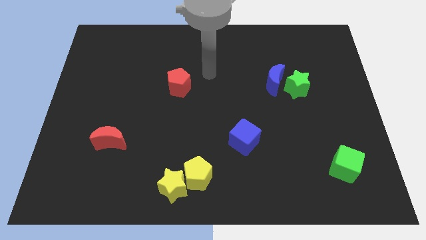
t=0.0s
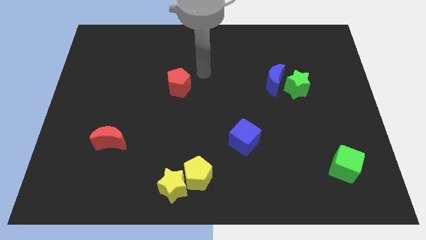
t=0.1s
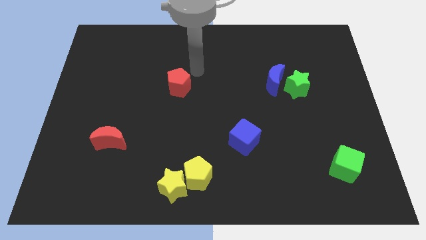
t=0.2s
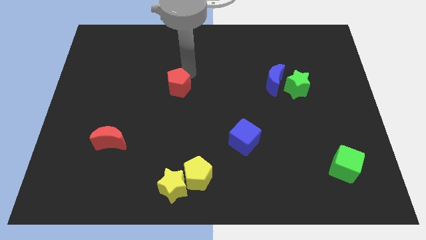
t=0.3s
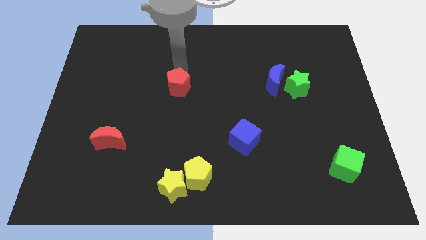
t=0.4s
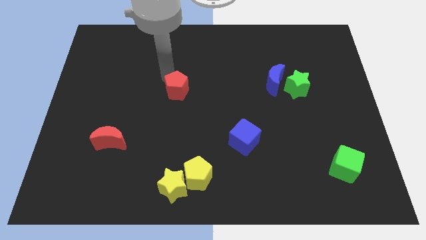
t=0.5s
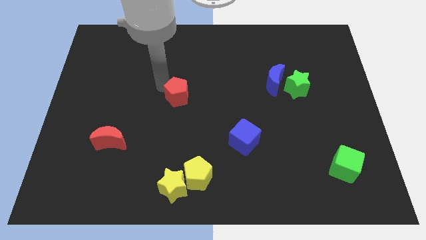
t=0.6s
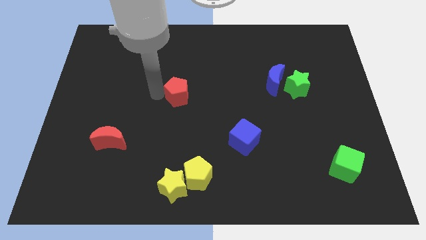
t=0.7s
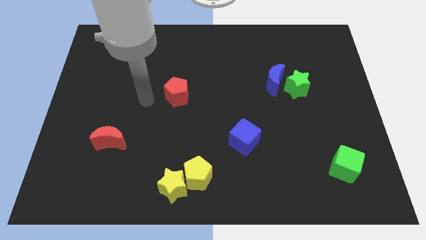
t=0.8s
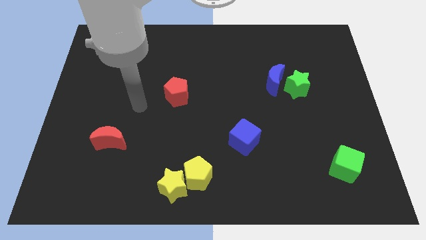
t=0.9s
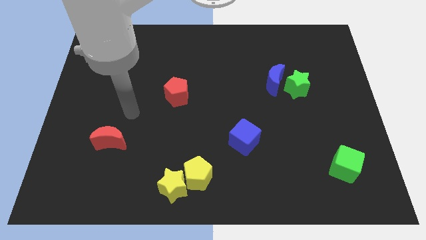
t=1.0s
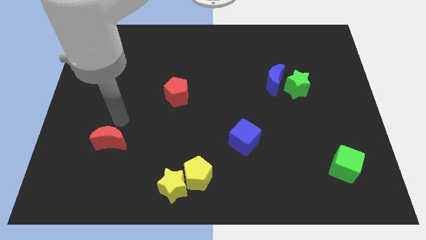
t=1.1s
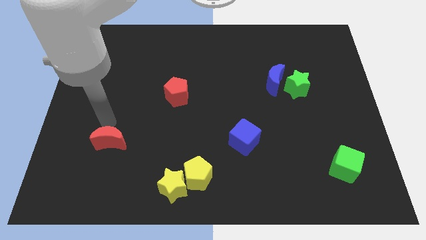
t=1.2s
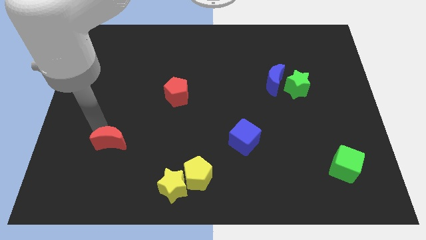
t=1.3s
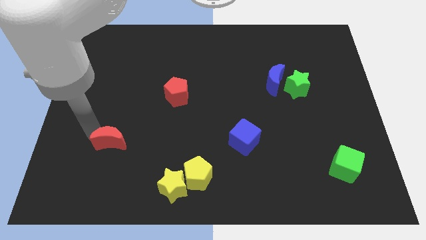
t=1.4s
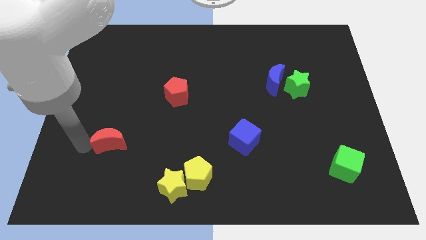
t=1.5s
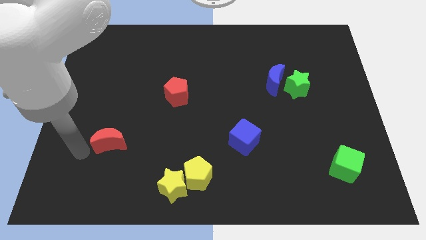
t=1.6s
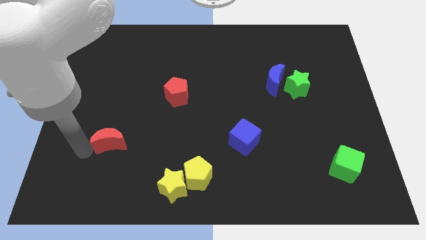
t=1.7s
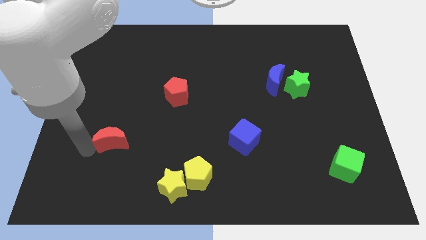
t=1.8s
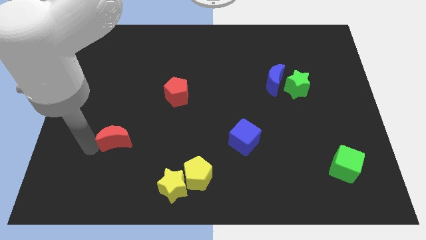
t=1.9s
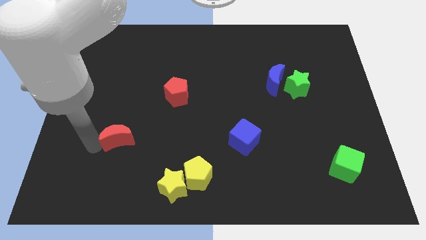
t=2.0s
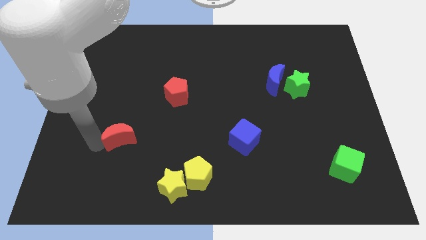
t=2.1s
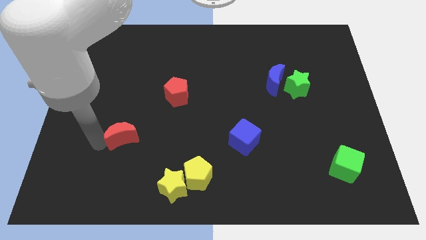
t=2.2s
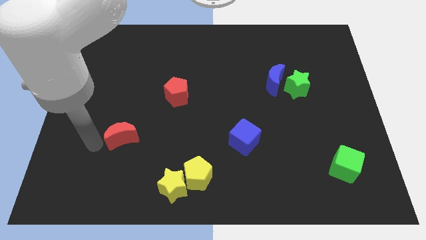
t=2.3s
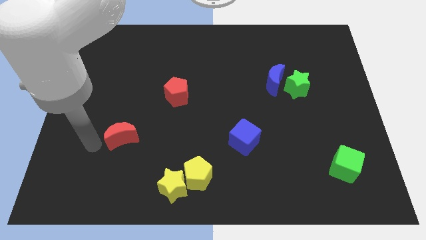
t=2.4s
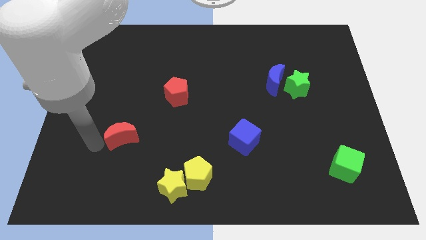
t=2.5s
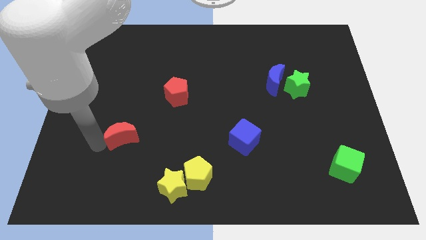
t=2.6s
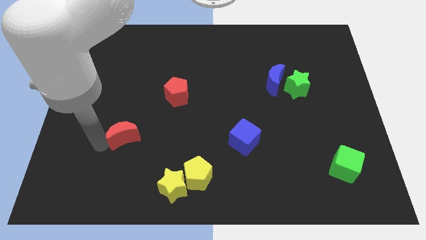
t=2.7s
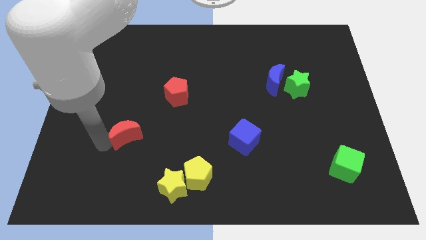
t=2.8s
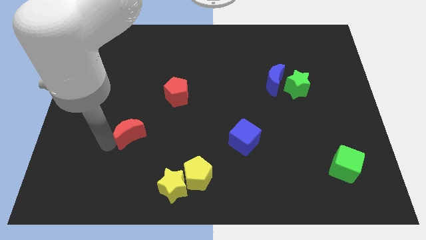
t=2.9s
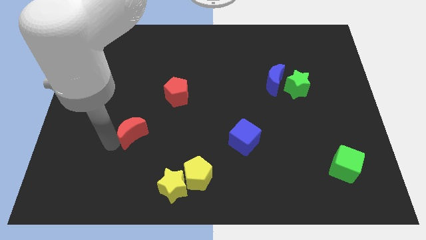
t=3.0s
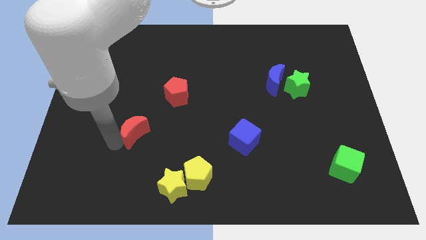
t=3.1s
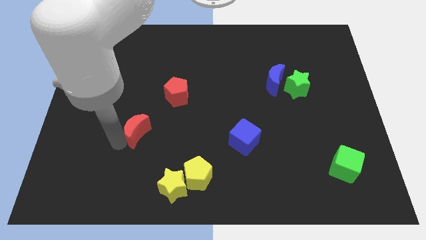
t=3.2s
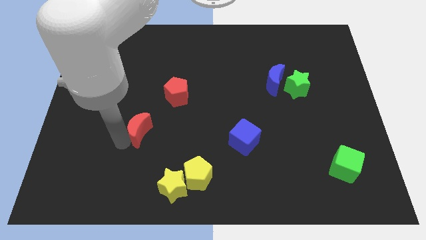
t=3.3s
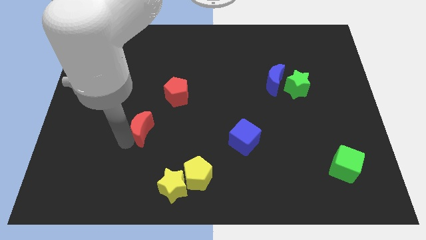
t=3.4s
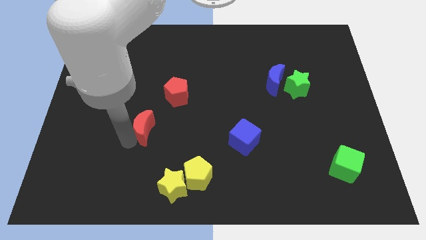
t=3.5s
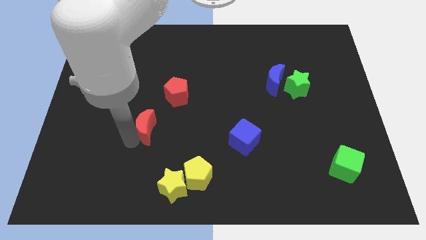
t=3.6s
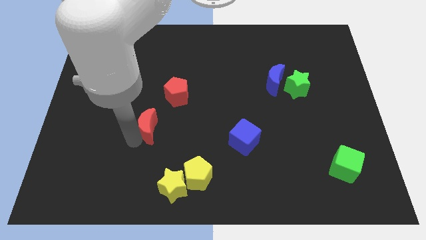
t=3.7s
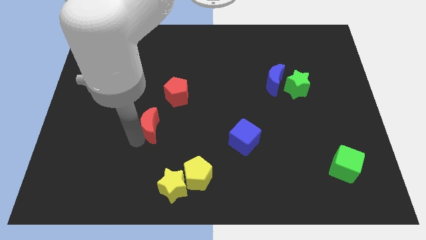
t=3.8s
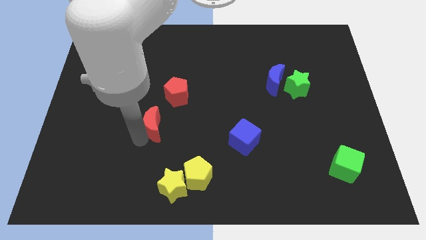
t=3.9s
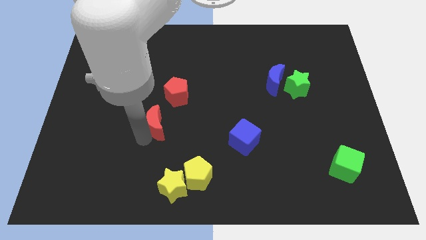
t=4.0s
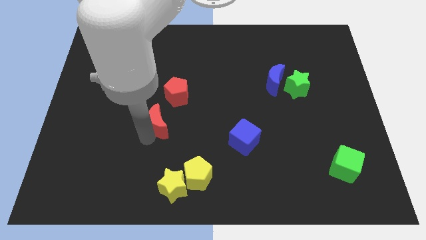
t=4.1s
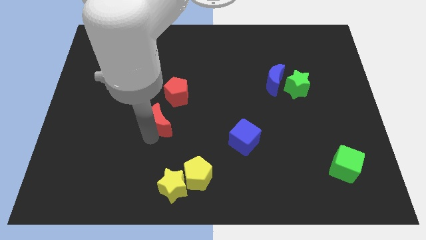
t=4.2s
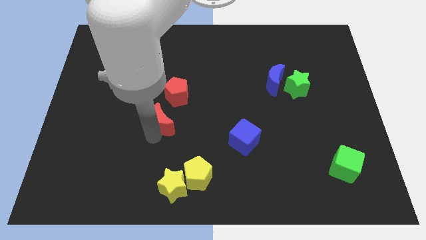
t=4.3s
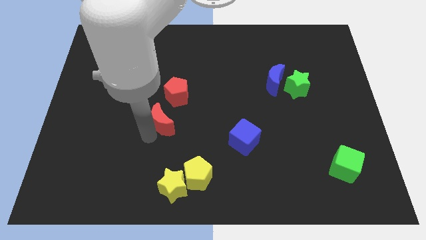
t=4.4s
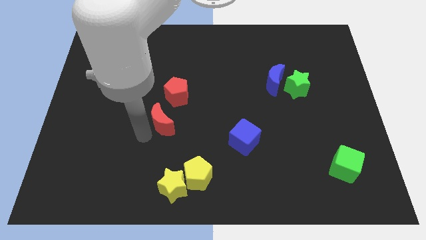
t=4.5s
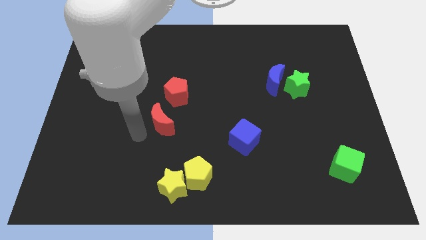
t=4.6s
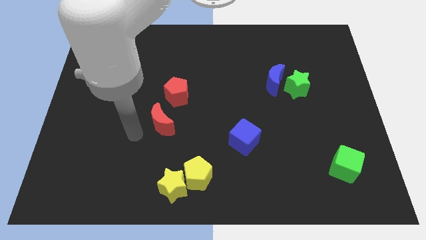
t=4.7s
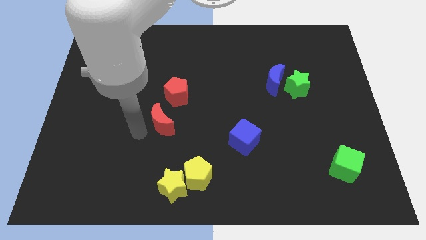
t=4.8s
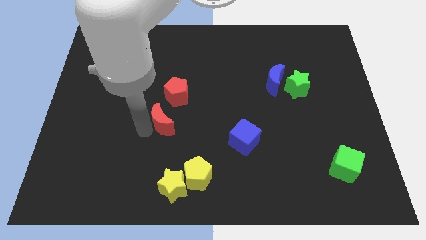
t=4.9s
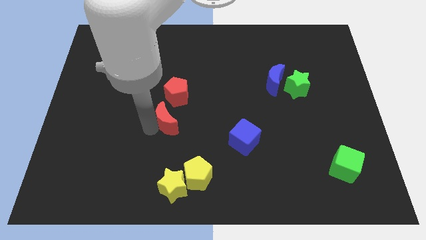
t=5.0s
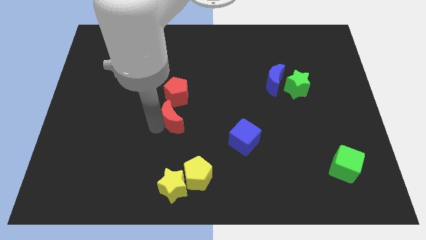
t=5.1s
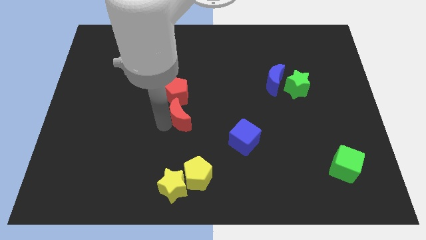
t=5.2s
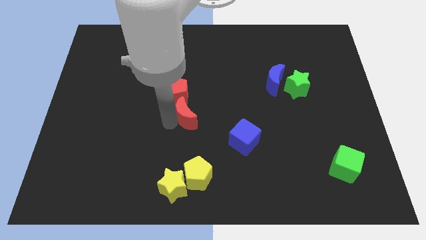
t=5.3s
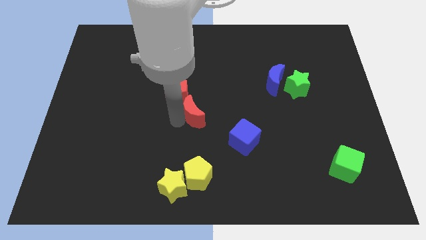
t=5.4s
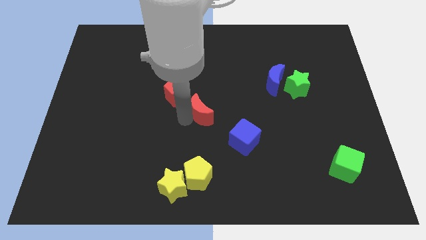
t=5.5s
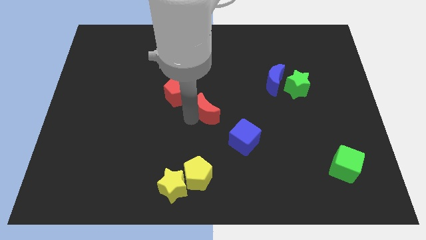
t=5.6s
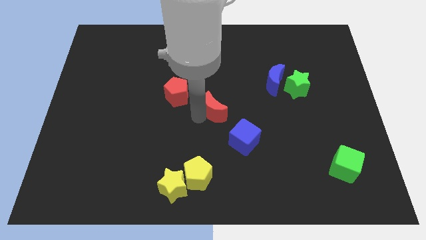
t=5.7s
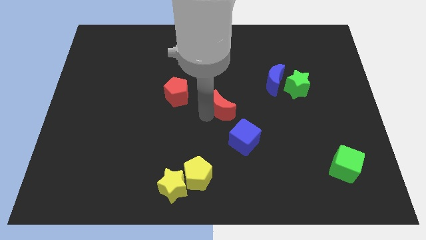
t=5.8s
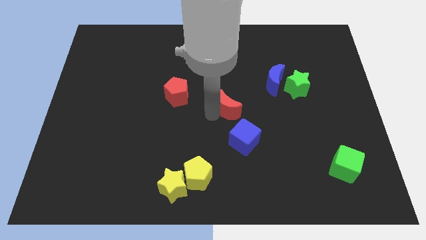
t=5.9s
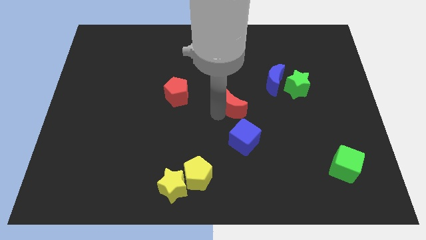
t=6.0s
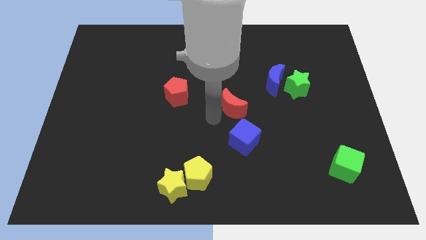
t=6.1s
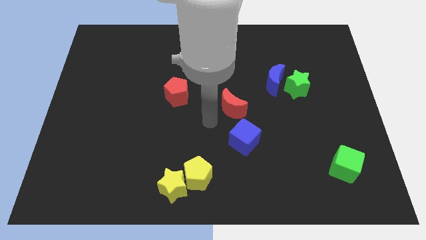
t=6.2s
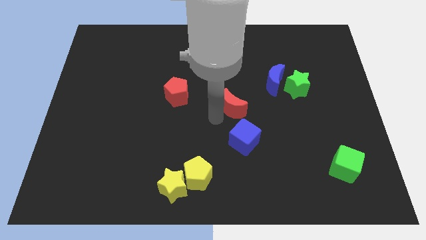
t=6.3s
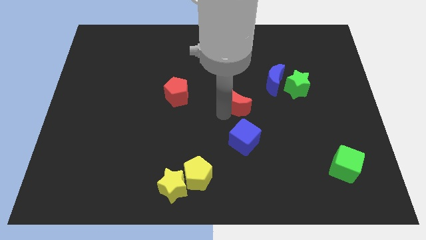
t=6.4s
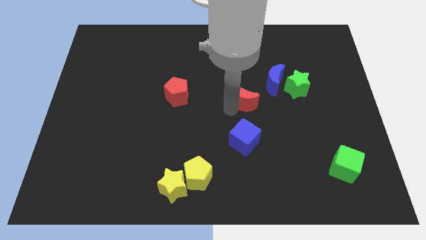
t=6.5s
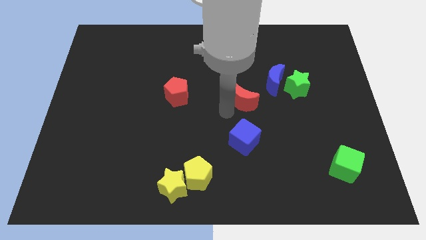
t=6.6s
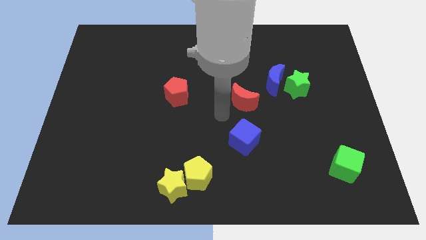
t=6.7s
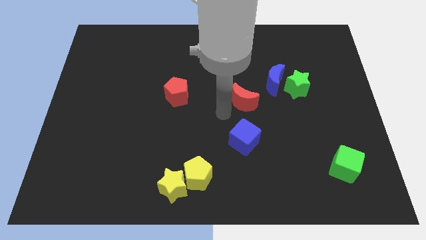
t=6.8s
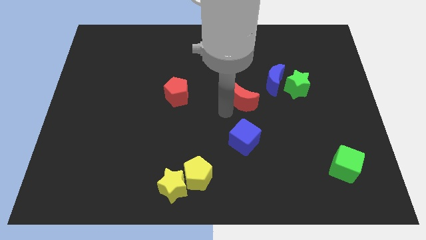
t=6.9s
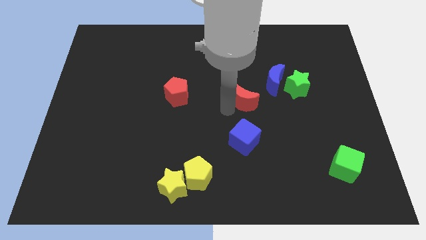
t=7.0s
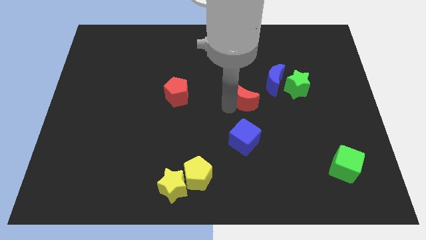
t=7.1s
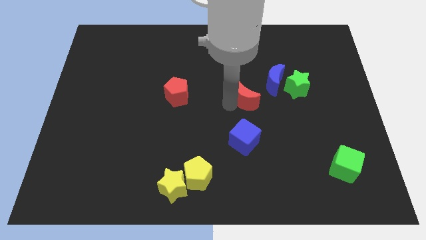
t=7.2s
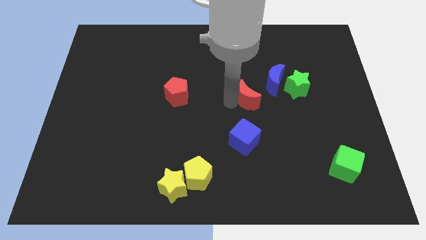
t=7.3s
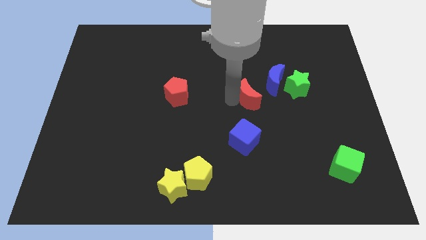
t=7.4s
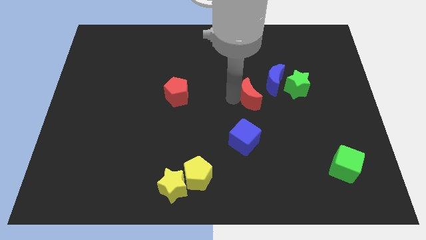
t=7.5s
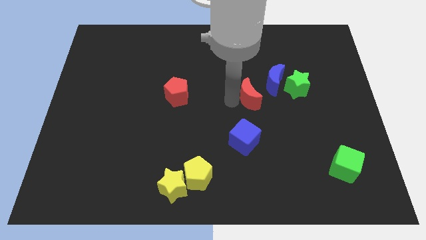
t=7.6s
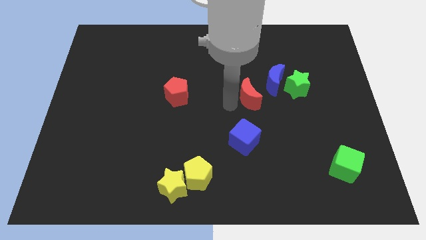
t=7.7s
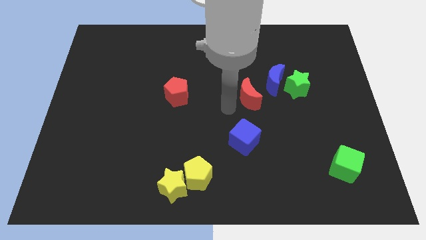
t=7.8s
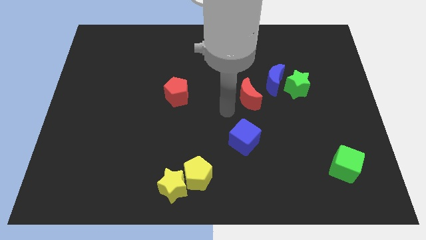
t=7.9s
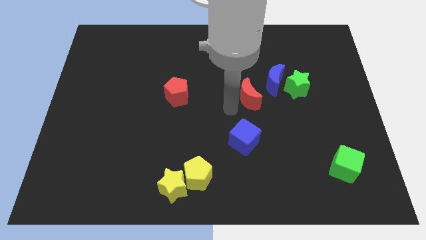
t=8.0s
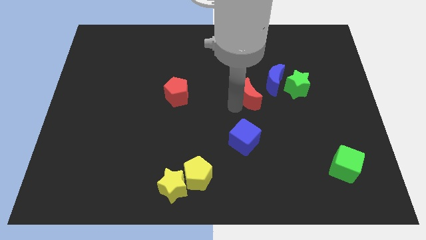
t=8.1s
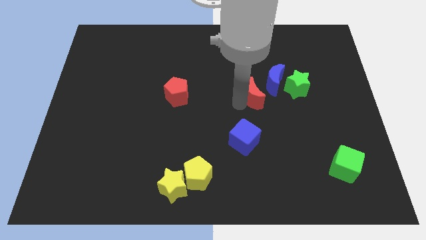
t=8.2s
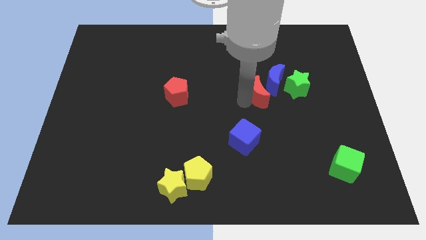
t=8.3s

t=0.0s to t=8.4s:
move the red moon towards the blue moon
